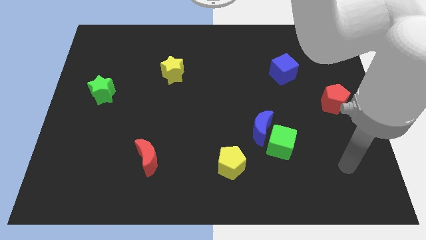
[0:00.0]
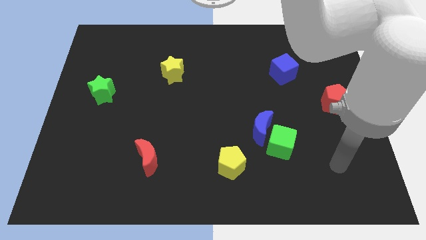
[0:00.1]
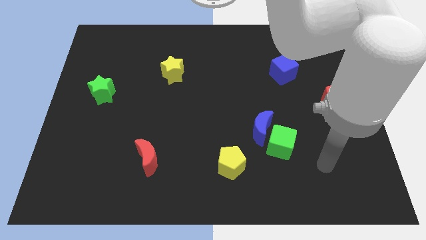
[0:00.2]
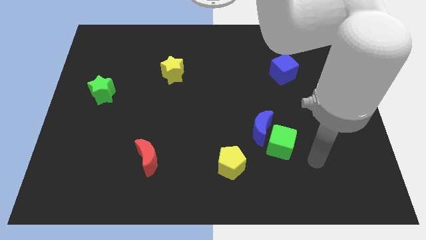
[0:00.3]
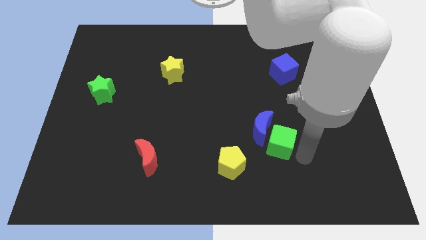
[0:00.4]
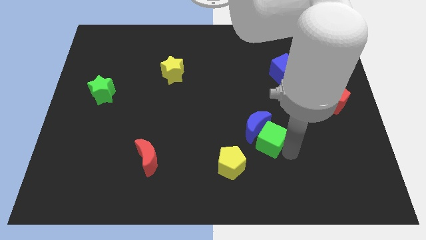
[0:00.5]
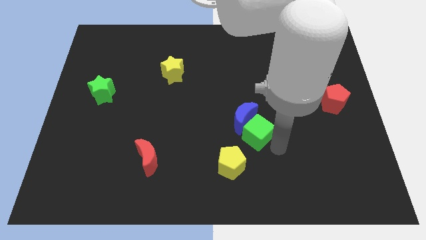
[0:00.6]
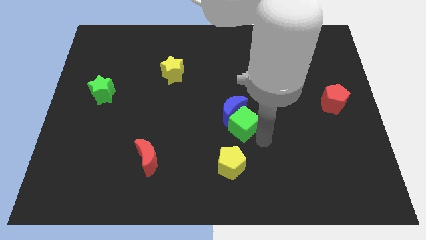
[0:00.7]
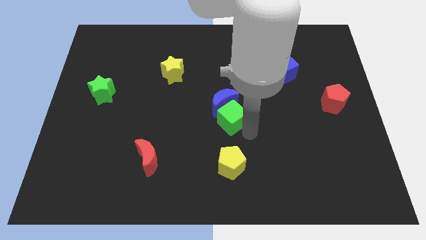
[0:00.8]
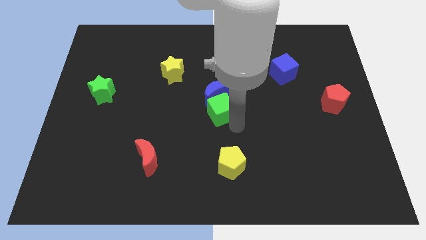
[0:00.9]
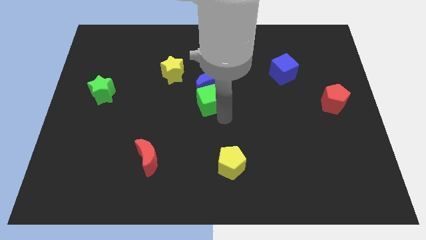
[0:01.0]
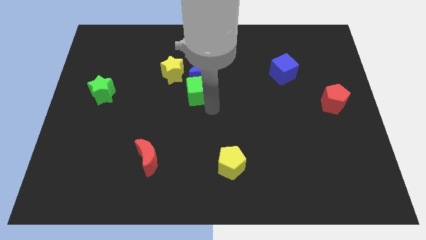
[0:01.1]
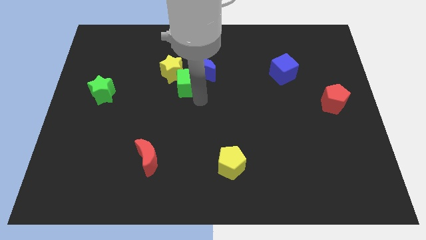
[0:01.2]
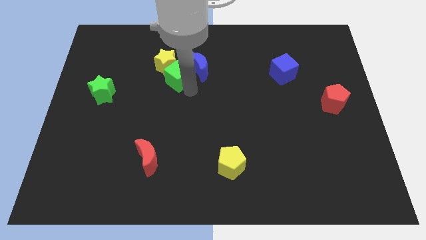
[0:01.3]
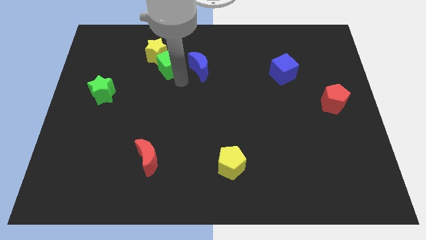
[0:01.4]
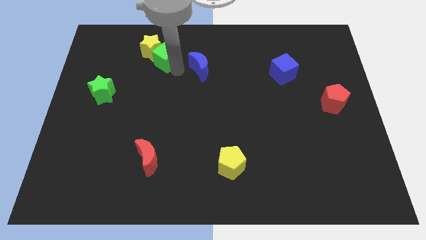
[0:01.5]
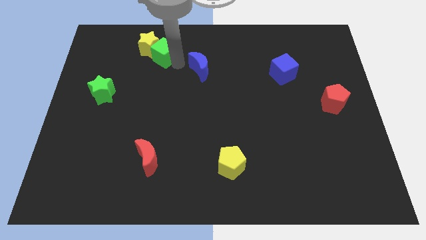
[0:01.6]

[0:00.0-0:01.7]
pull the blue moon apart from the green cube

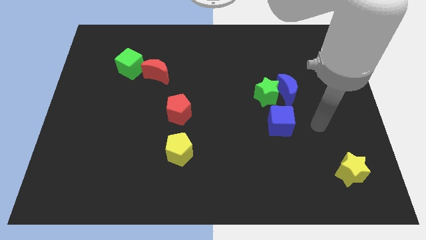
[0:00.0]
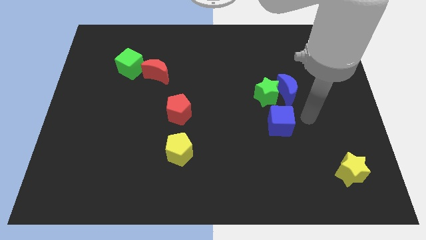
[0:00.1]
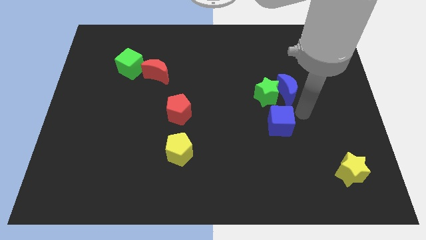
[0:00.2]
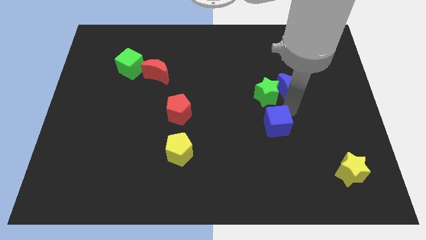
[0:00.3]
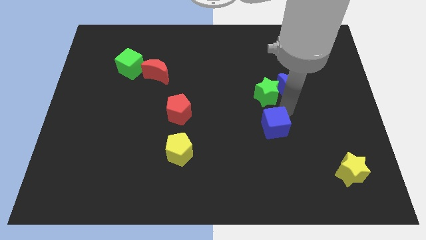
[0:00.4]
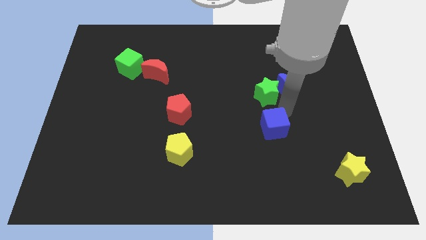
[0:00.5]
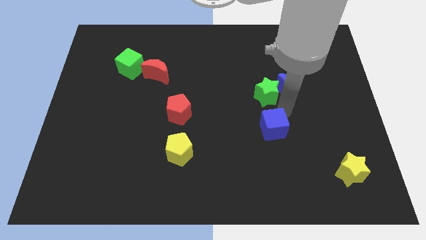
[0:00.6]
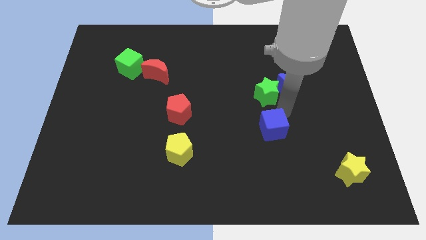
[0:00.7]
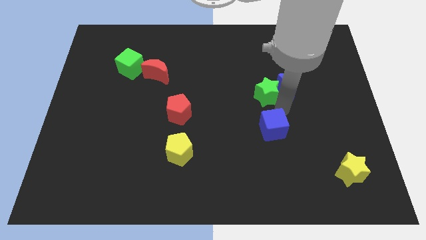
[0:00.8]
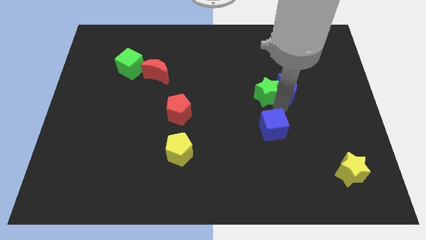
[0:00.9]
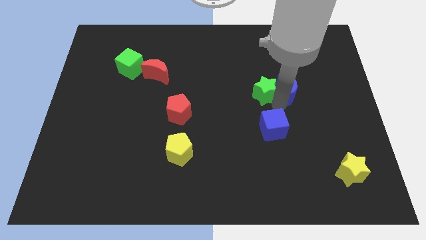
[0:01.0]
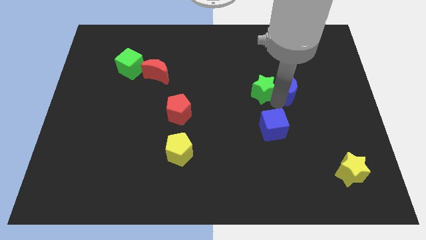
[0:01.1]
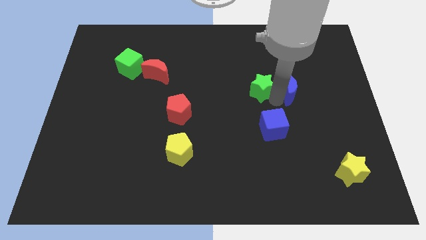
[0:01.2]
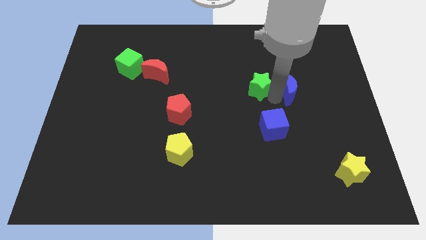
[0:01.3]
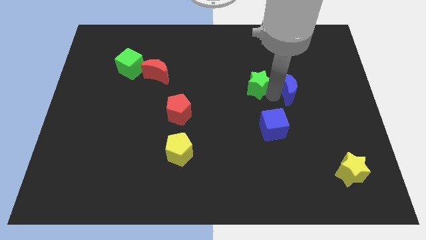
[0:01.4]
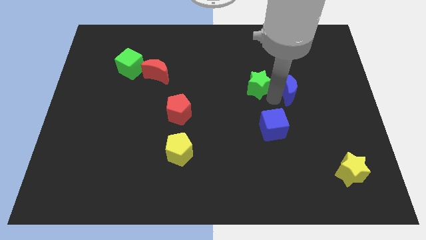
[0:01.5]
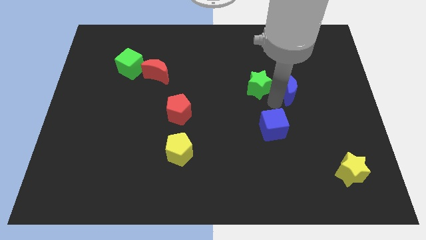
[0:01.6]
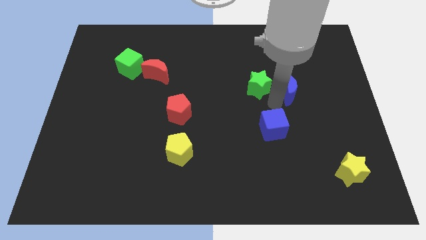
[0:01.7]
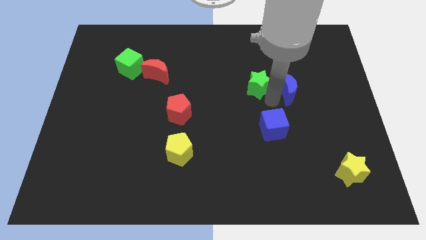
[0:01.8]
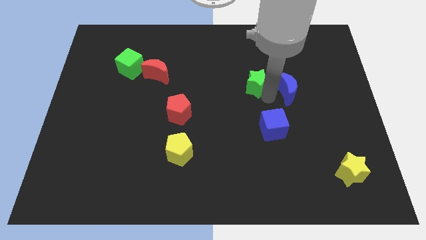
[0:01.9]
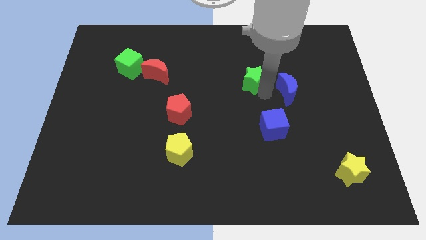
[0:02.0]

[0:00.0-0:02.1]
move the green star away from the blue moon and blue cube

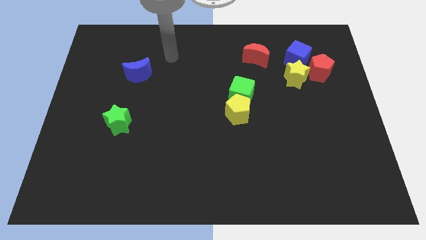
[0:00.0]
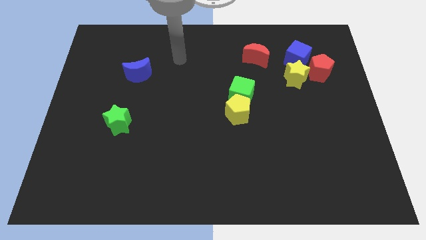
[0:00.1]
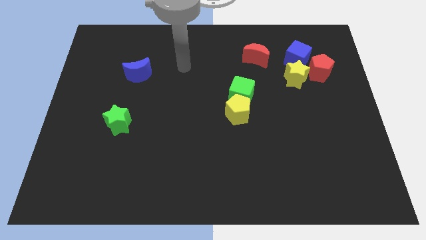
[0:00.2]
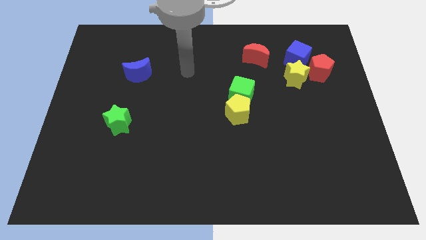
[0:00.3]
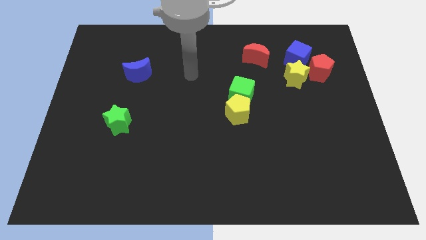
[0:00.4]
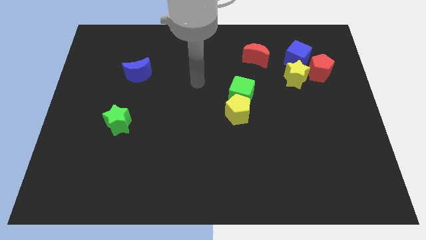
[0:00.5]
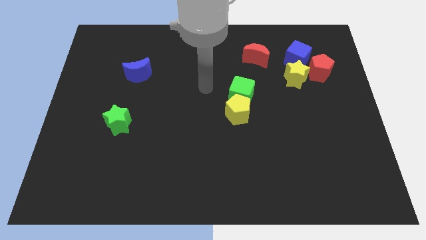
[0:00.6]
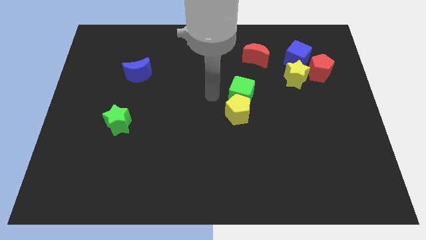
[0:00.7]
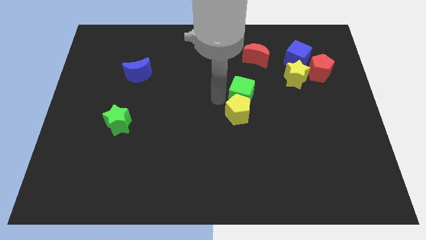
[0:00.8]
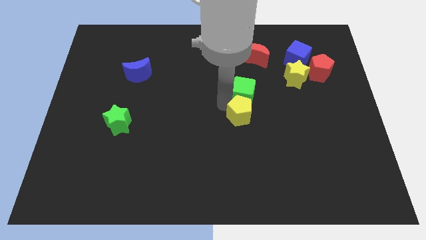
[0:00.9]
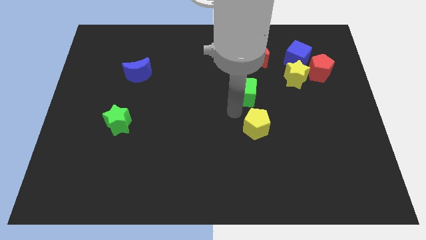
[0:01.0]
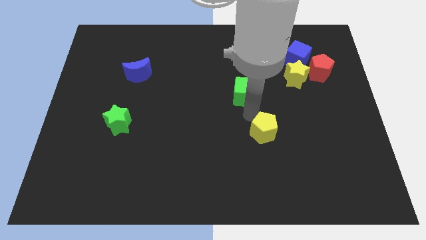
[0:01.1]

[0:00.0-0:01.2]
pull the green cube apart from the yellow pentagon

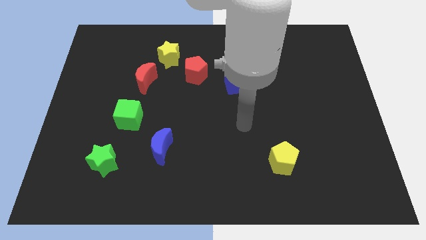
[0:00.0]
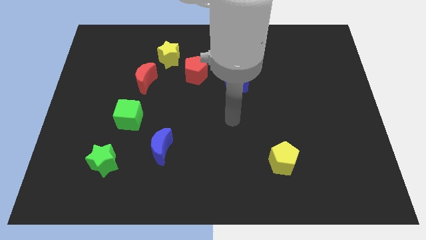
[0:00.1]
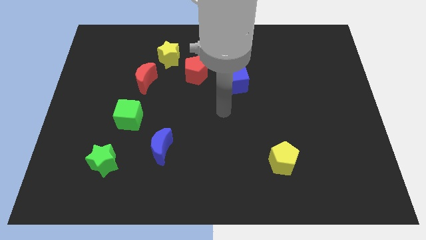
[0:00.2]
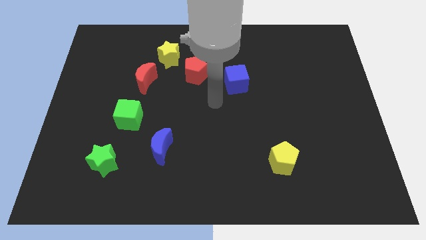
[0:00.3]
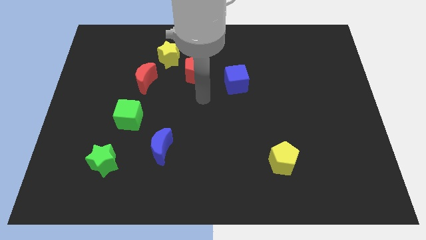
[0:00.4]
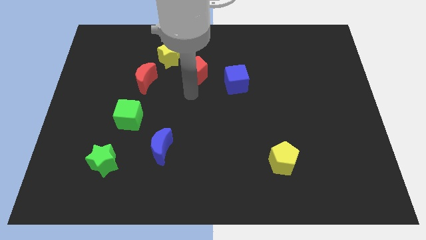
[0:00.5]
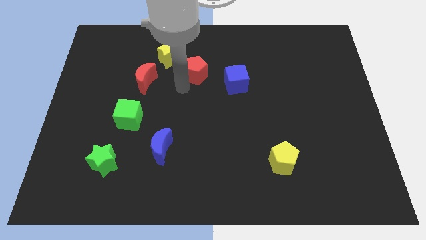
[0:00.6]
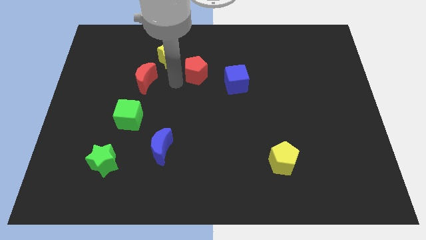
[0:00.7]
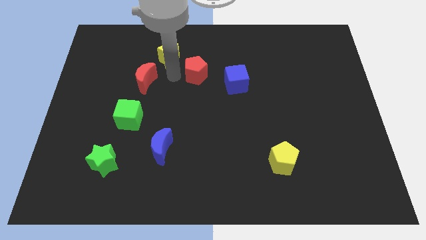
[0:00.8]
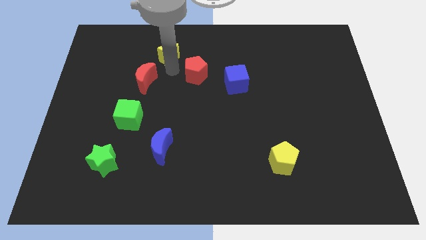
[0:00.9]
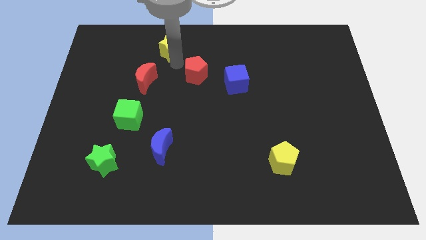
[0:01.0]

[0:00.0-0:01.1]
move the red pentagon away from the yellow star

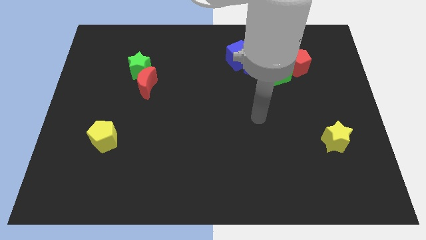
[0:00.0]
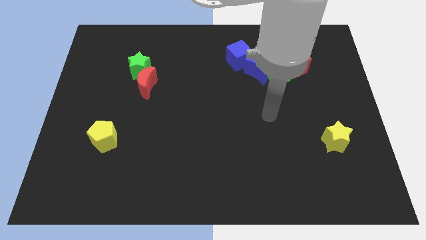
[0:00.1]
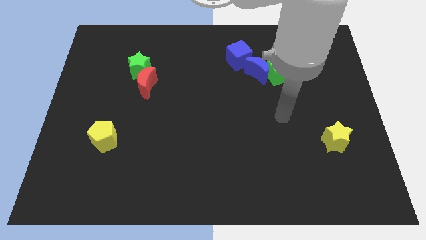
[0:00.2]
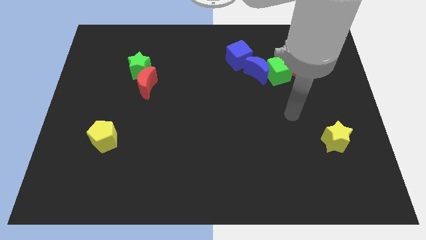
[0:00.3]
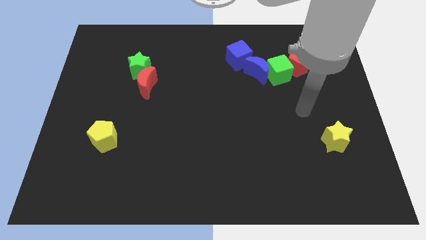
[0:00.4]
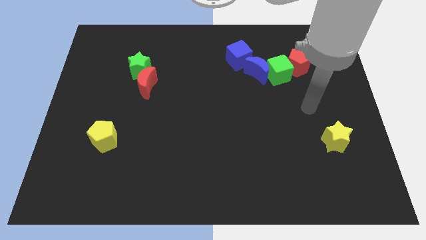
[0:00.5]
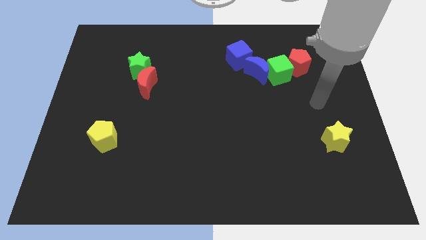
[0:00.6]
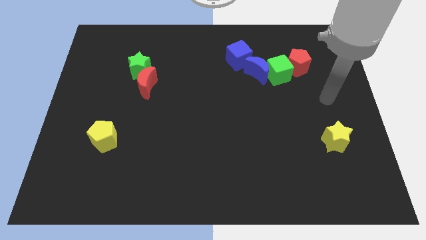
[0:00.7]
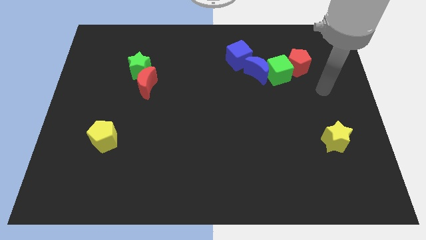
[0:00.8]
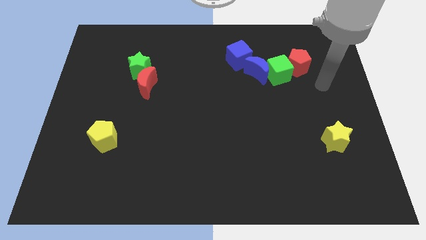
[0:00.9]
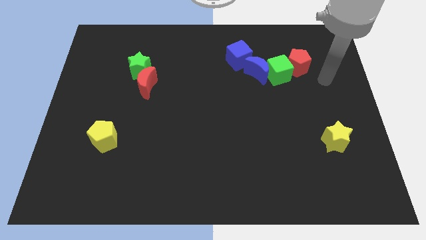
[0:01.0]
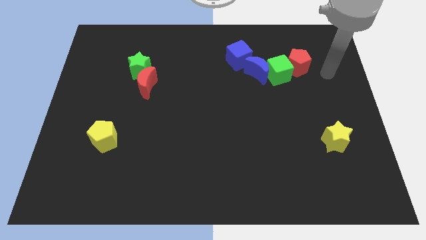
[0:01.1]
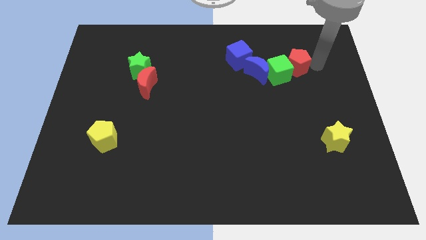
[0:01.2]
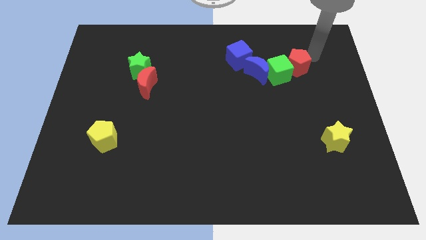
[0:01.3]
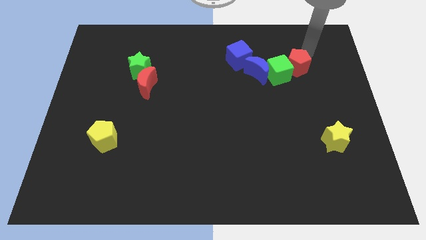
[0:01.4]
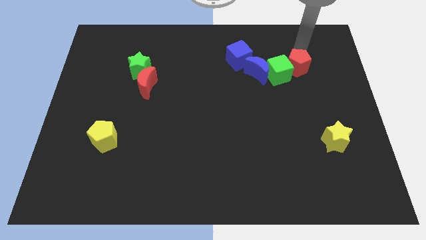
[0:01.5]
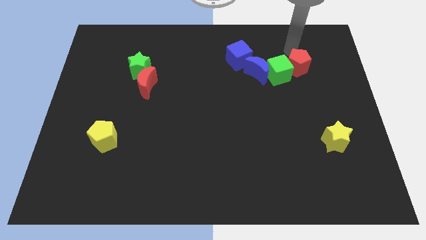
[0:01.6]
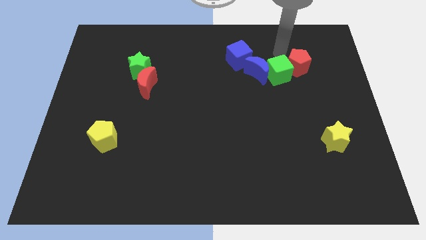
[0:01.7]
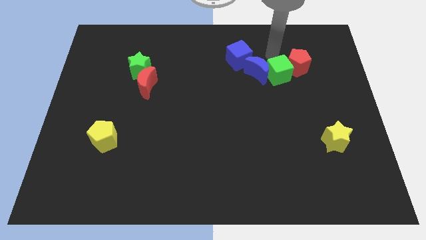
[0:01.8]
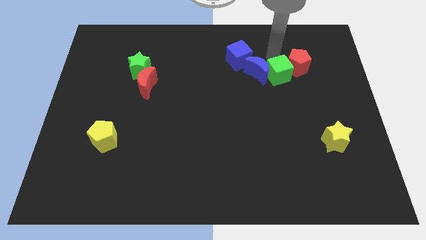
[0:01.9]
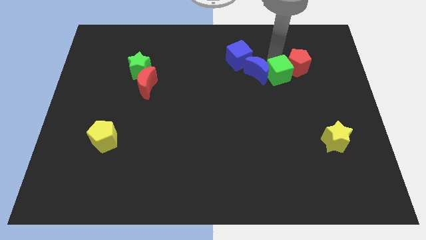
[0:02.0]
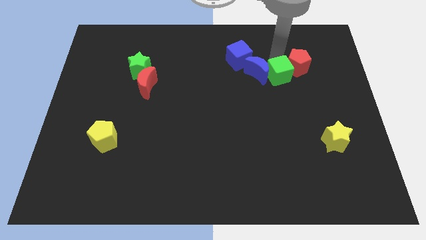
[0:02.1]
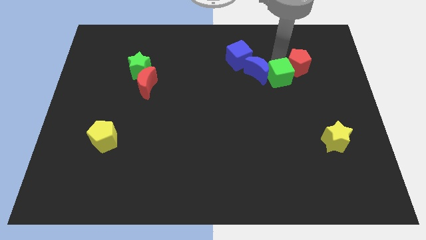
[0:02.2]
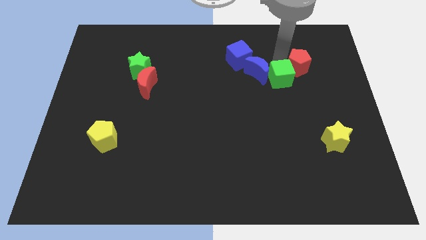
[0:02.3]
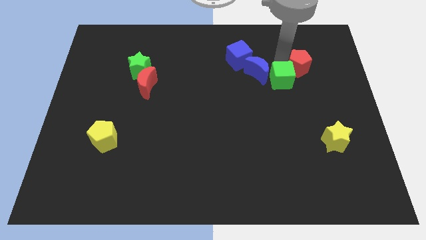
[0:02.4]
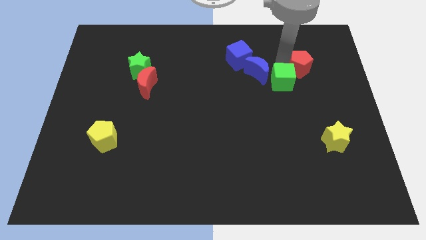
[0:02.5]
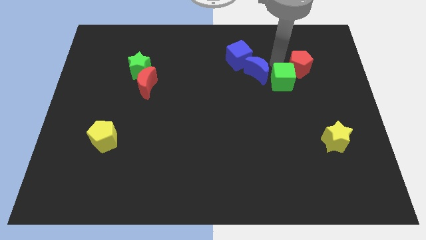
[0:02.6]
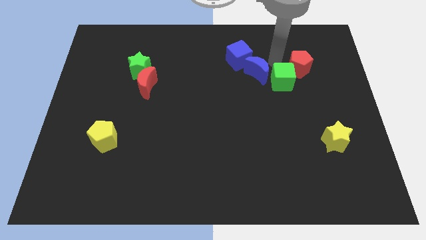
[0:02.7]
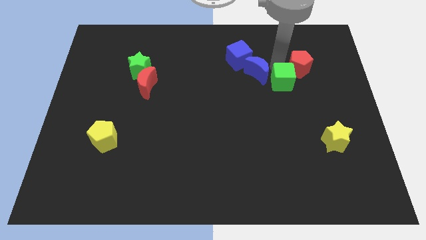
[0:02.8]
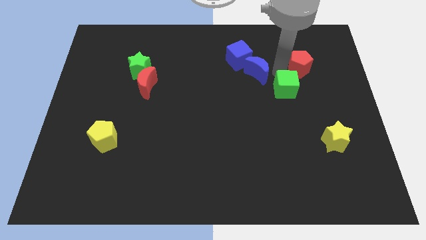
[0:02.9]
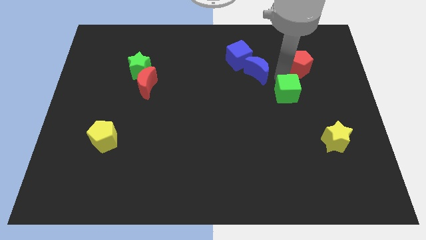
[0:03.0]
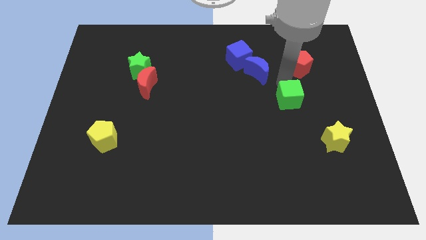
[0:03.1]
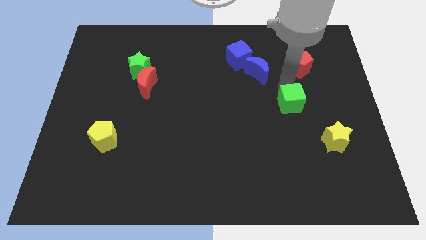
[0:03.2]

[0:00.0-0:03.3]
move the green cube away from the blue moon and red pentagon

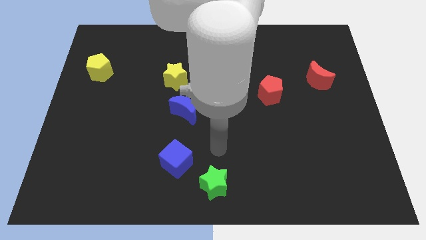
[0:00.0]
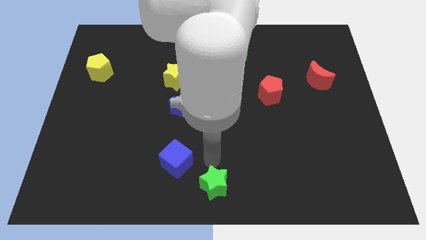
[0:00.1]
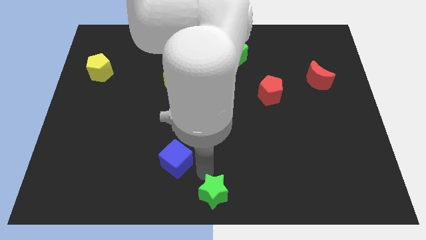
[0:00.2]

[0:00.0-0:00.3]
pull the blue cube apart from the green star
